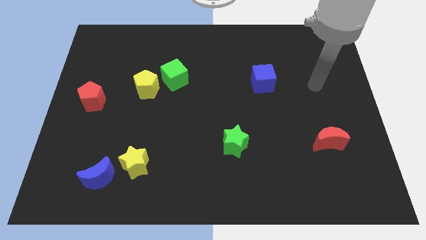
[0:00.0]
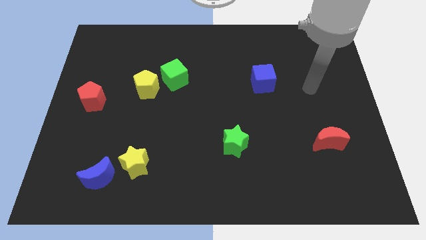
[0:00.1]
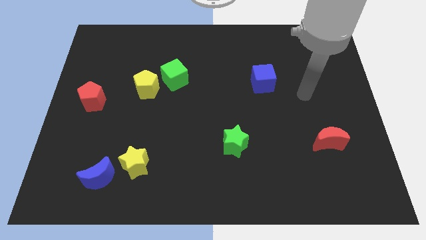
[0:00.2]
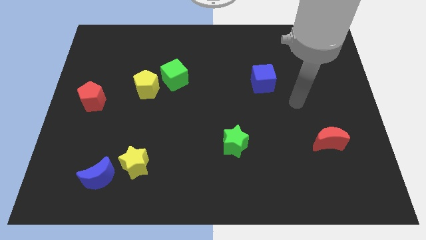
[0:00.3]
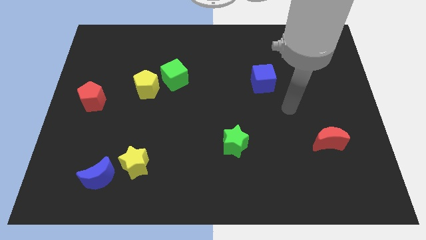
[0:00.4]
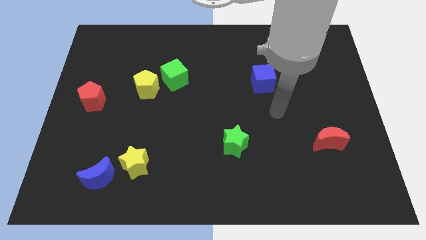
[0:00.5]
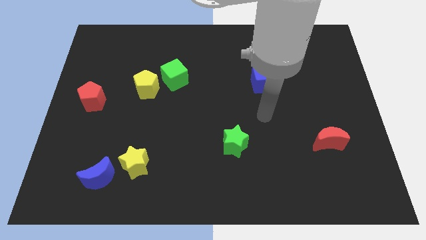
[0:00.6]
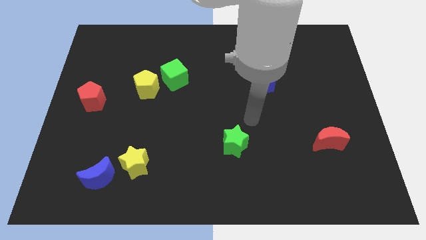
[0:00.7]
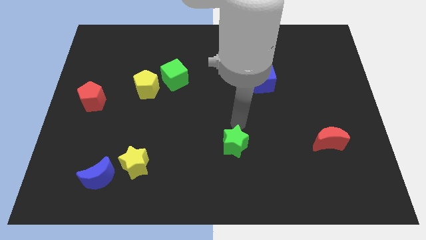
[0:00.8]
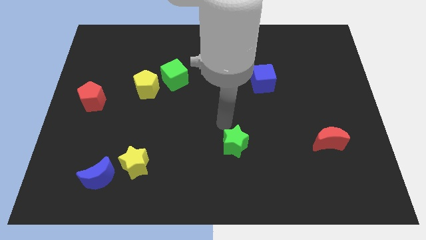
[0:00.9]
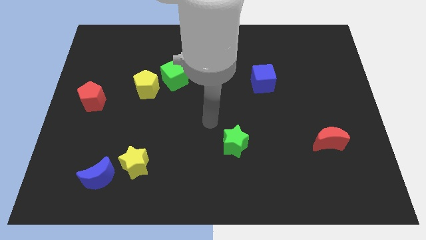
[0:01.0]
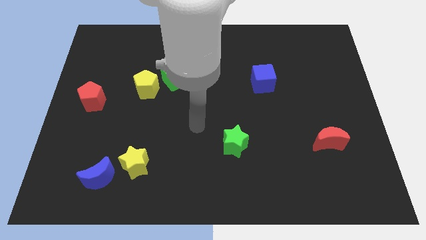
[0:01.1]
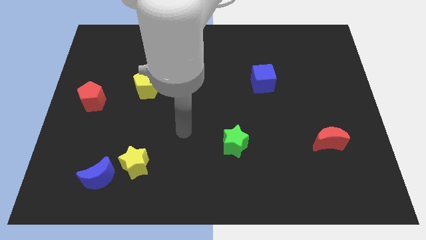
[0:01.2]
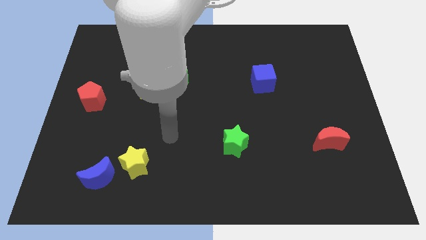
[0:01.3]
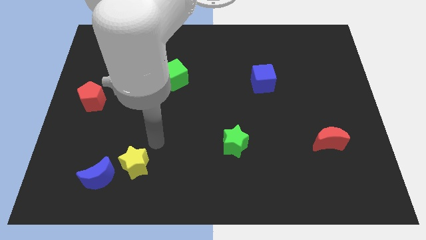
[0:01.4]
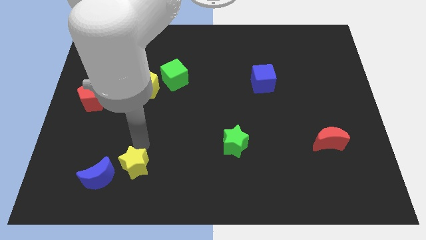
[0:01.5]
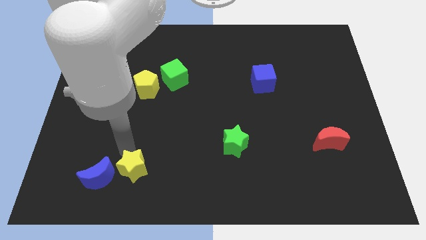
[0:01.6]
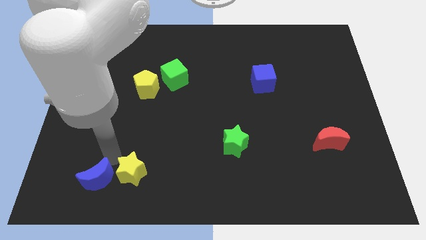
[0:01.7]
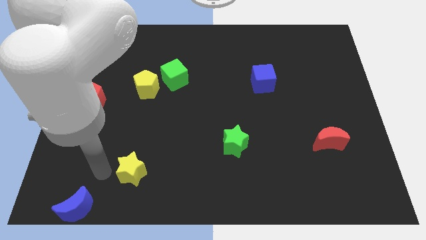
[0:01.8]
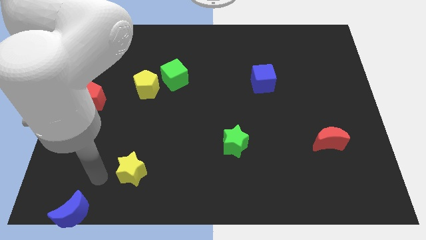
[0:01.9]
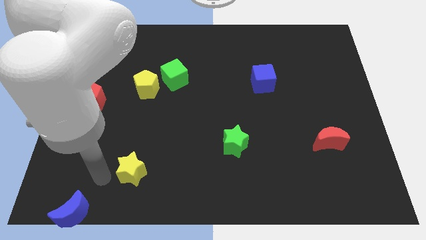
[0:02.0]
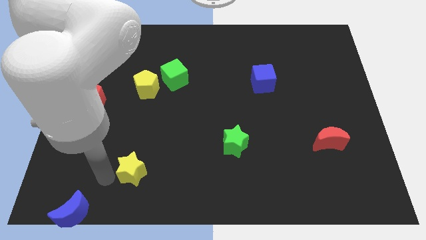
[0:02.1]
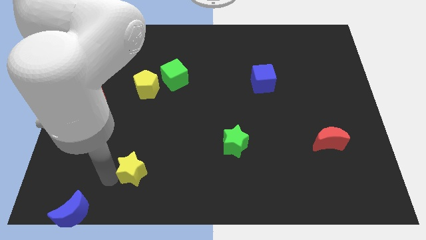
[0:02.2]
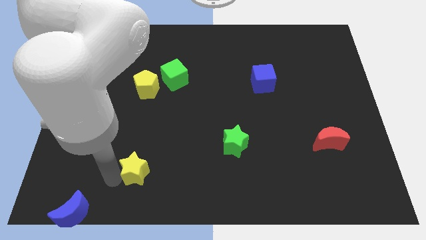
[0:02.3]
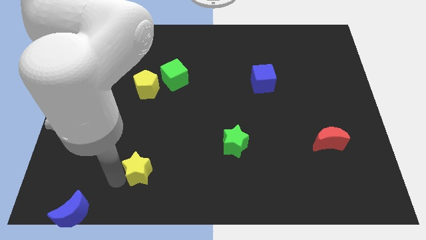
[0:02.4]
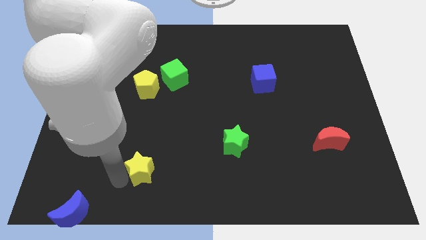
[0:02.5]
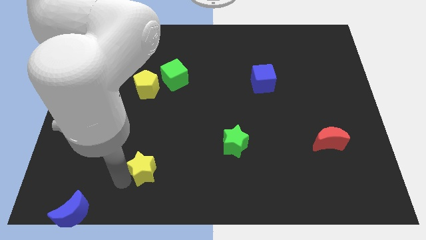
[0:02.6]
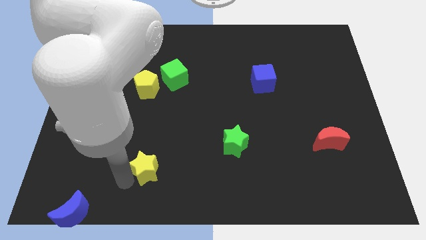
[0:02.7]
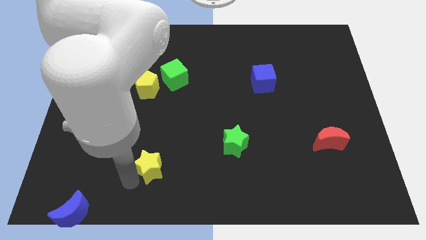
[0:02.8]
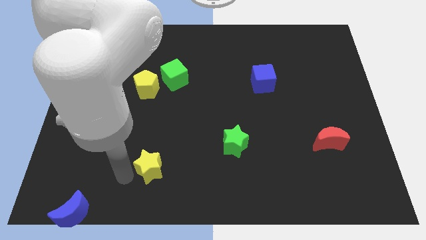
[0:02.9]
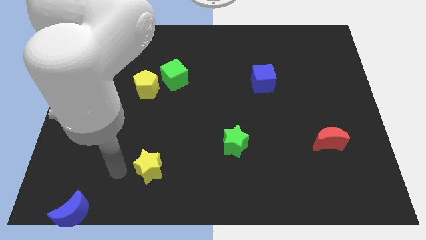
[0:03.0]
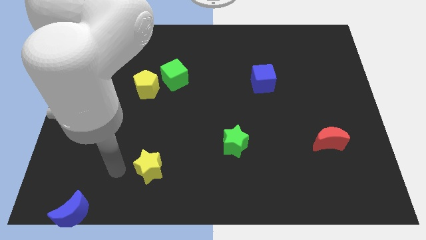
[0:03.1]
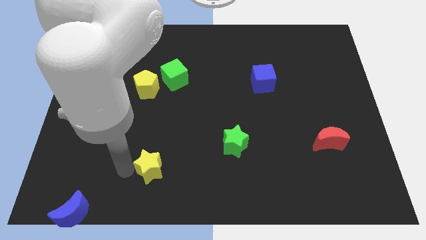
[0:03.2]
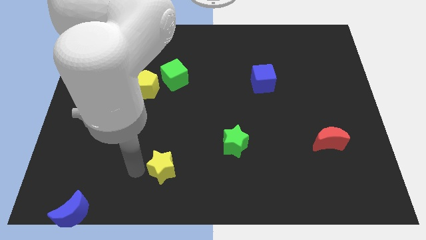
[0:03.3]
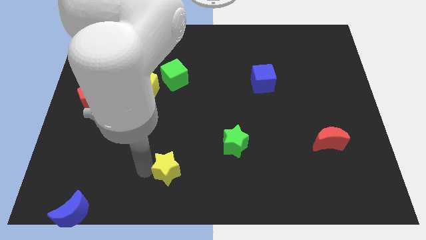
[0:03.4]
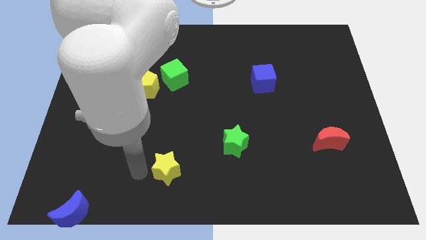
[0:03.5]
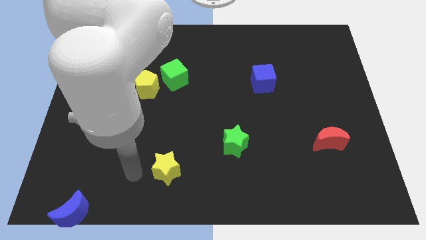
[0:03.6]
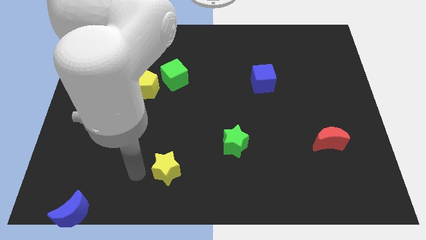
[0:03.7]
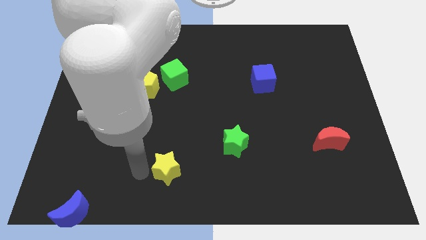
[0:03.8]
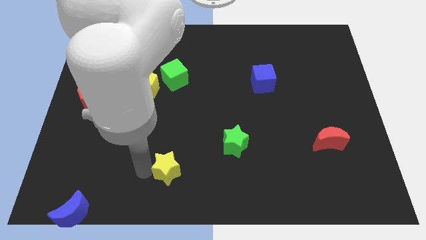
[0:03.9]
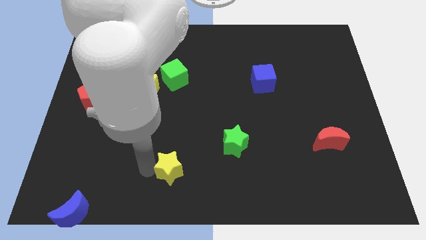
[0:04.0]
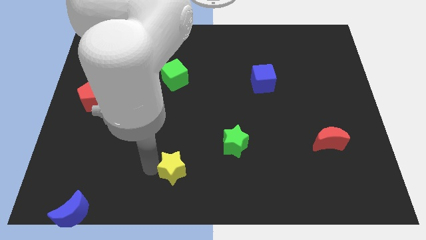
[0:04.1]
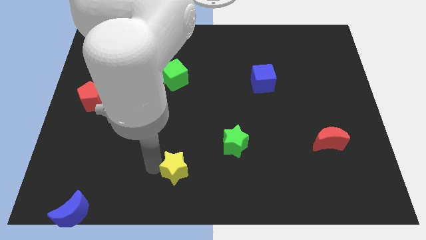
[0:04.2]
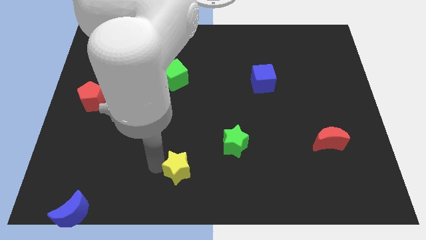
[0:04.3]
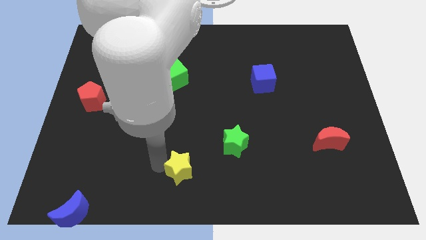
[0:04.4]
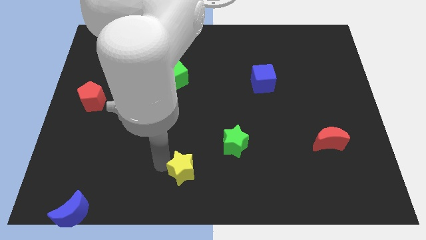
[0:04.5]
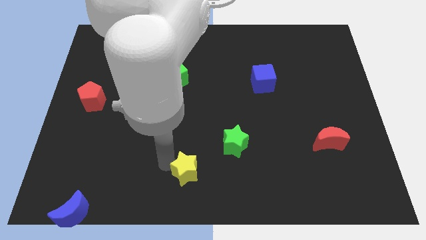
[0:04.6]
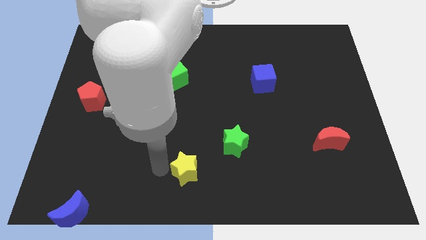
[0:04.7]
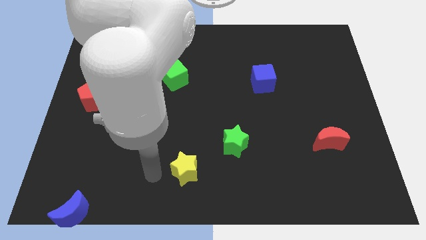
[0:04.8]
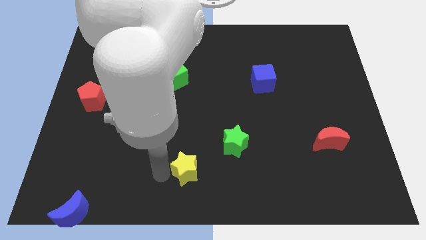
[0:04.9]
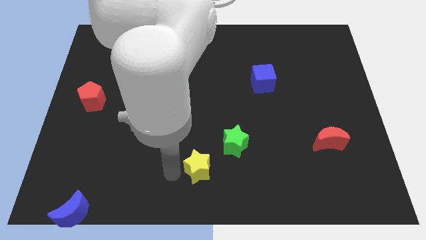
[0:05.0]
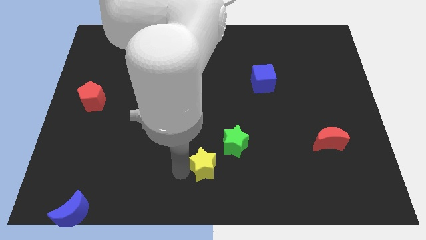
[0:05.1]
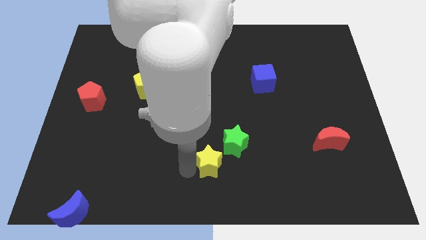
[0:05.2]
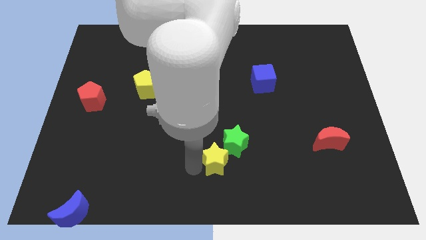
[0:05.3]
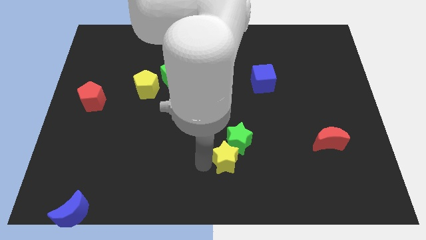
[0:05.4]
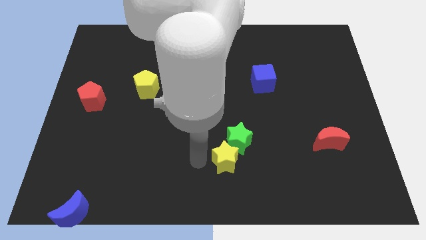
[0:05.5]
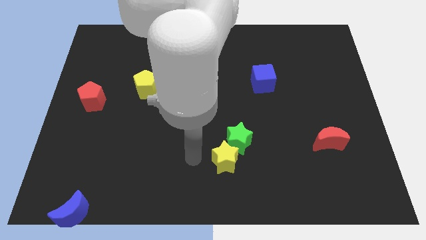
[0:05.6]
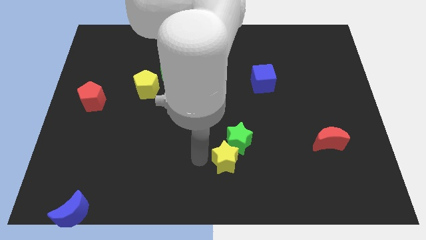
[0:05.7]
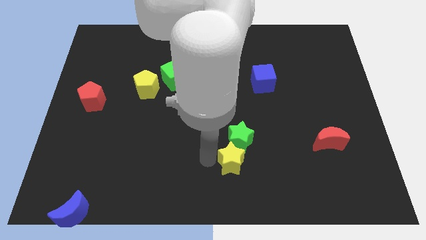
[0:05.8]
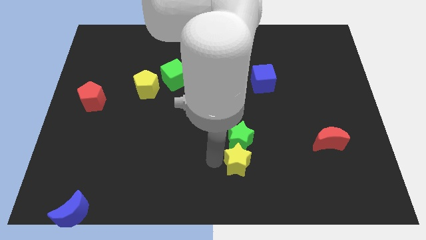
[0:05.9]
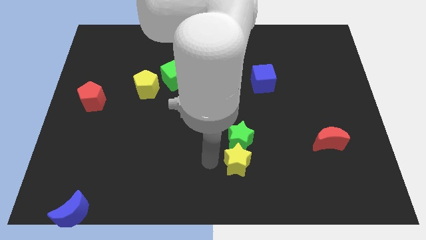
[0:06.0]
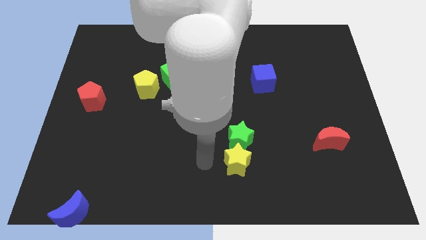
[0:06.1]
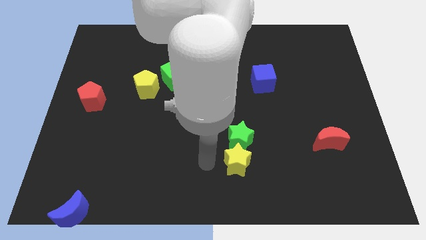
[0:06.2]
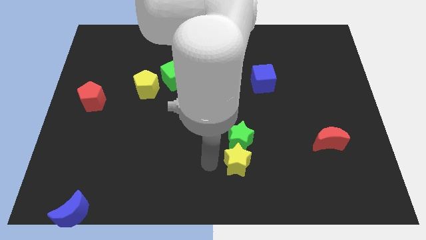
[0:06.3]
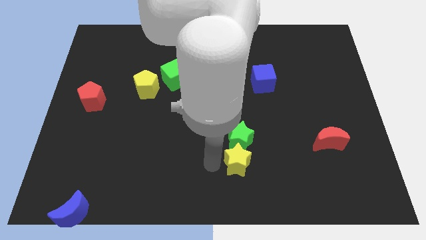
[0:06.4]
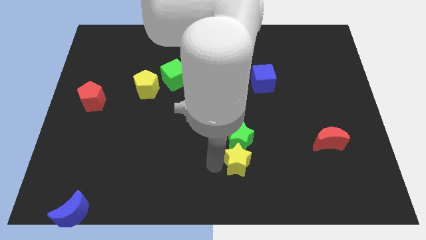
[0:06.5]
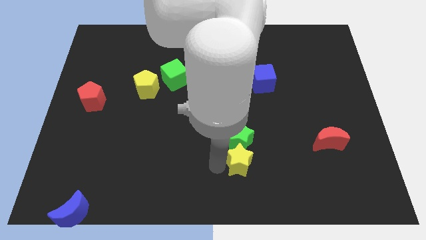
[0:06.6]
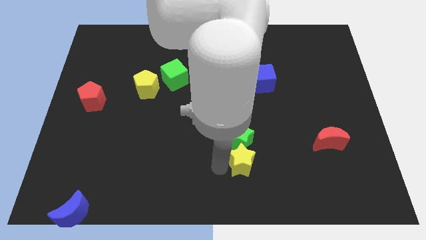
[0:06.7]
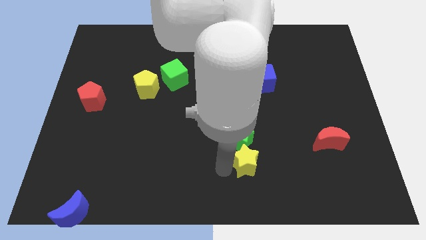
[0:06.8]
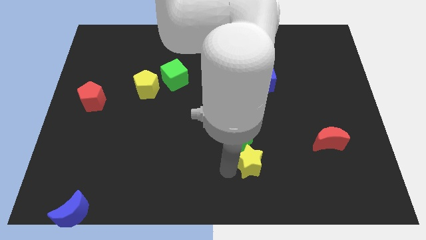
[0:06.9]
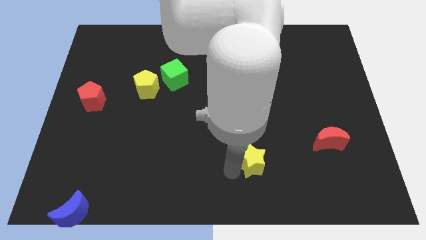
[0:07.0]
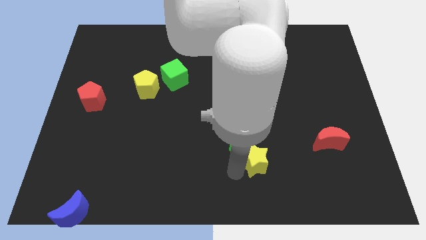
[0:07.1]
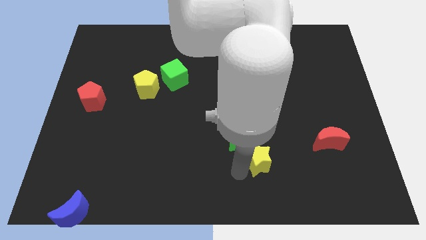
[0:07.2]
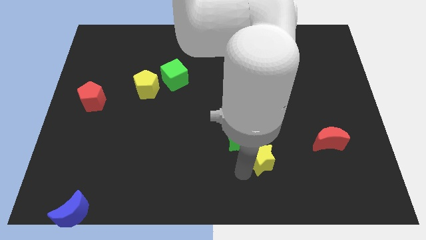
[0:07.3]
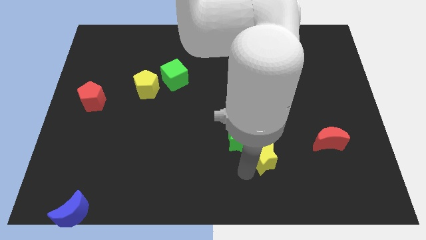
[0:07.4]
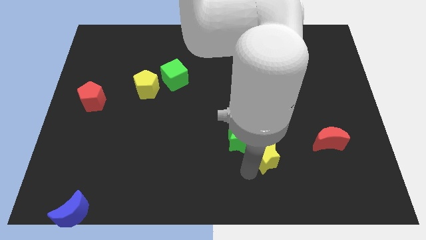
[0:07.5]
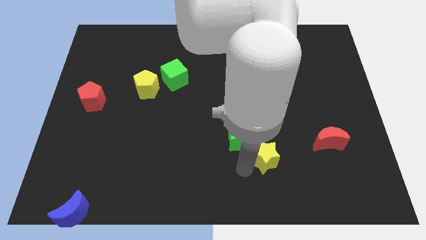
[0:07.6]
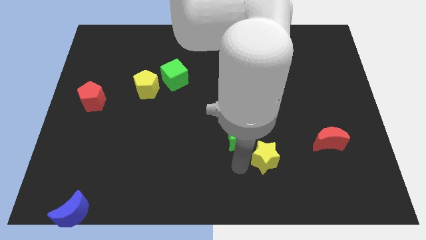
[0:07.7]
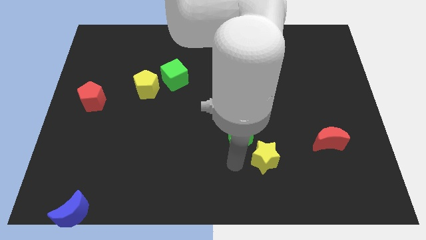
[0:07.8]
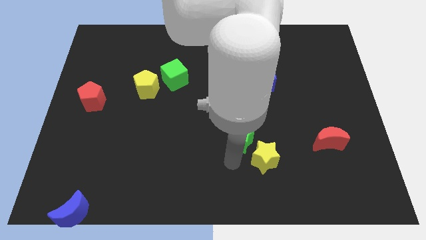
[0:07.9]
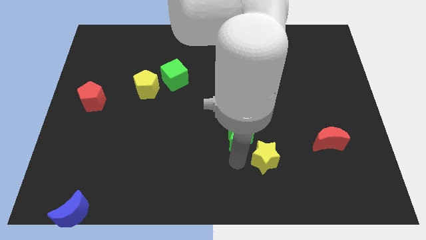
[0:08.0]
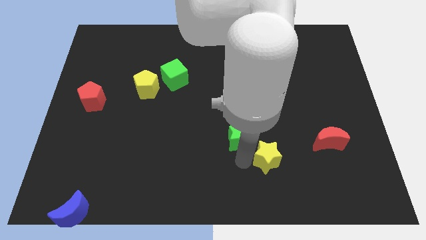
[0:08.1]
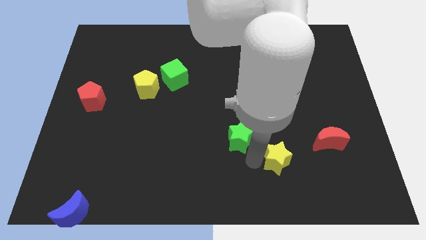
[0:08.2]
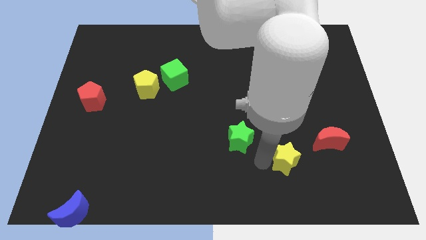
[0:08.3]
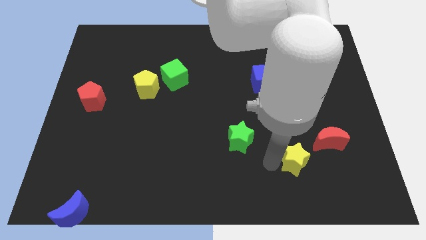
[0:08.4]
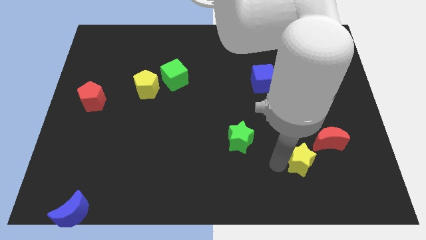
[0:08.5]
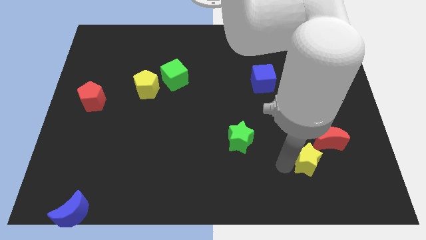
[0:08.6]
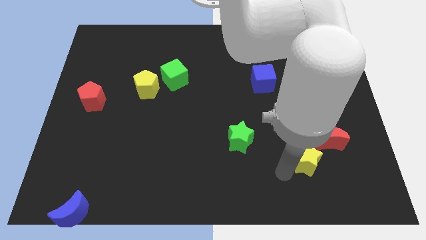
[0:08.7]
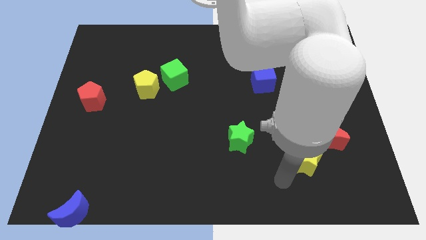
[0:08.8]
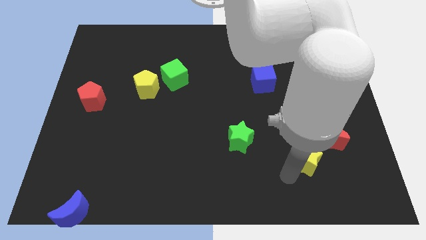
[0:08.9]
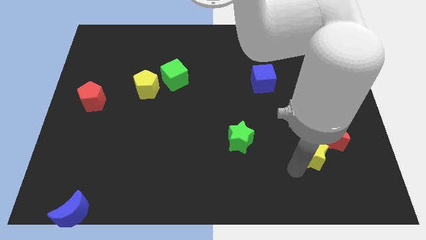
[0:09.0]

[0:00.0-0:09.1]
push the yellow star next to the red moon
